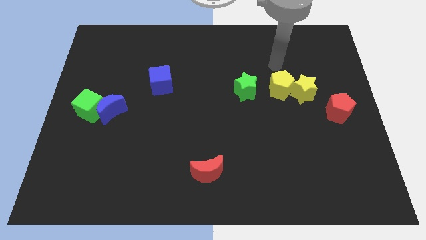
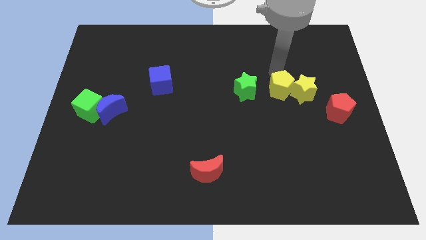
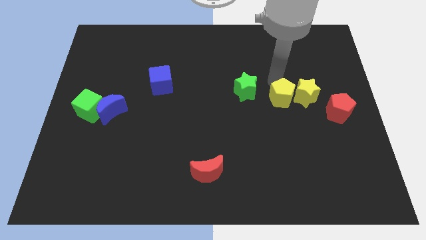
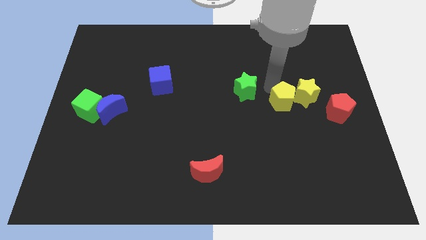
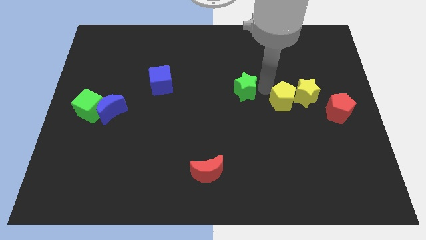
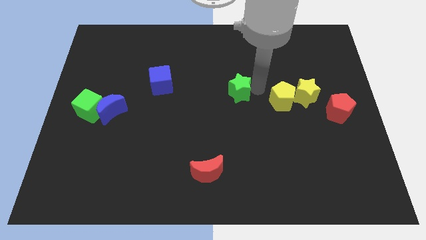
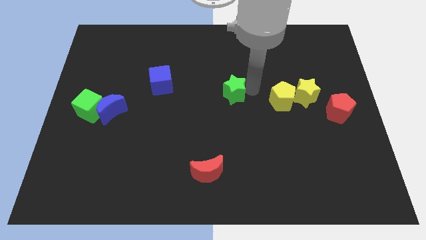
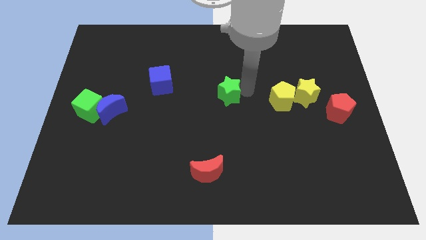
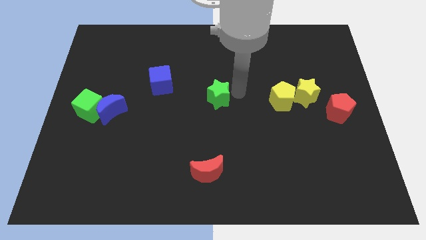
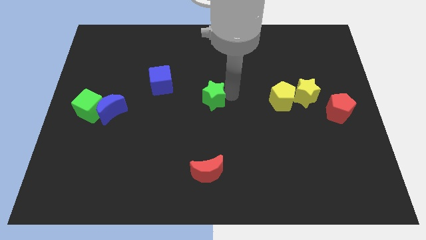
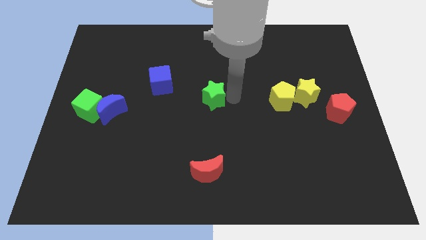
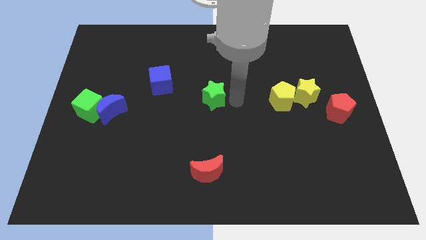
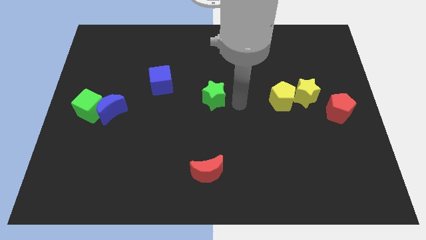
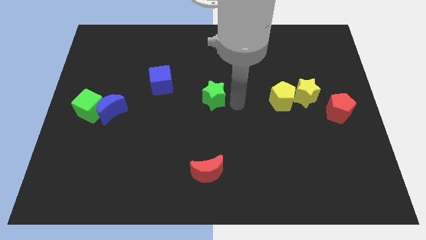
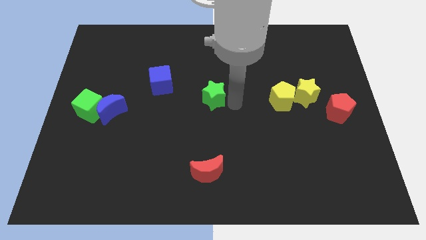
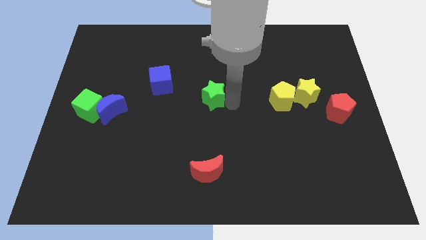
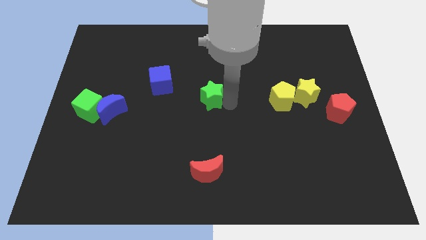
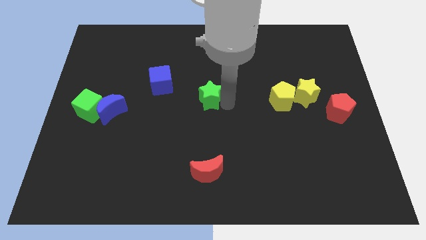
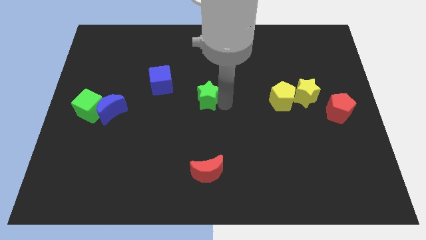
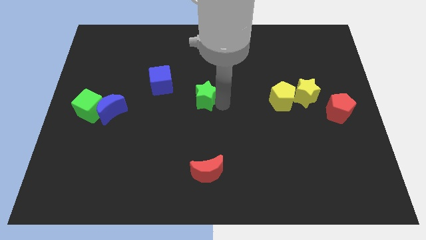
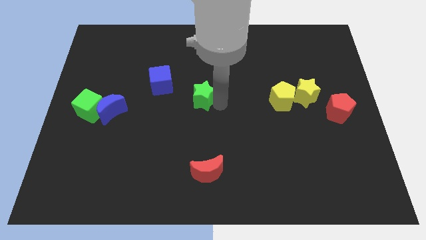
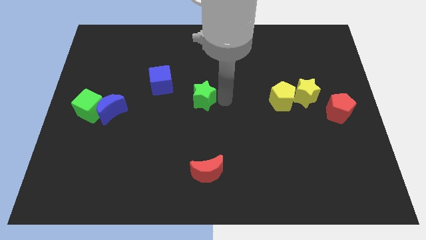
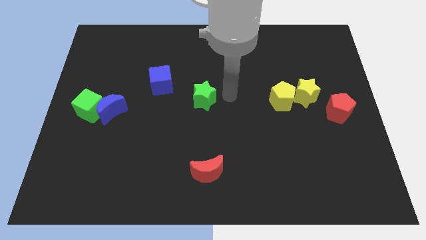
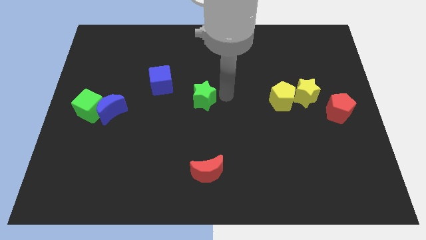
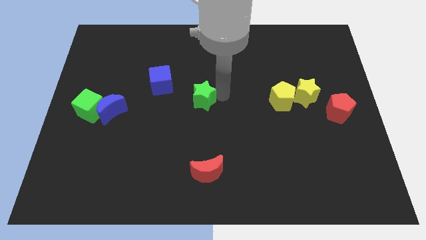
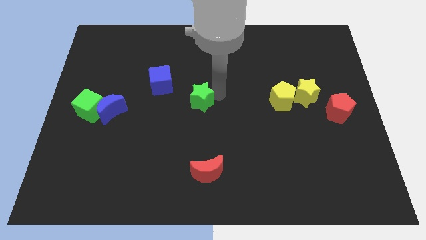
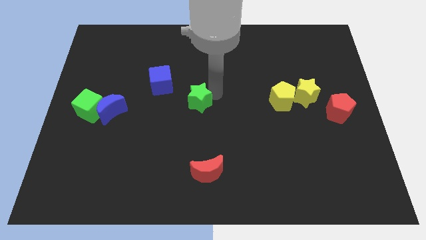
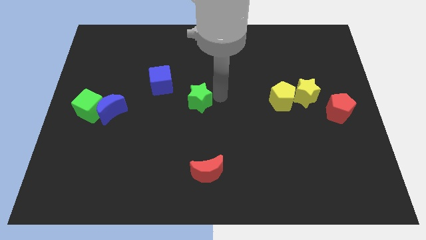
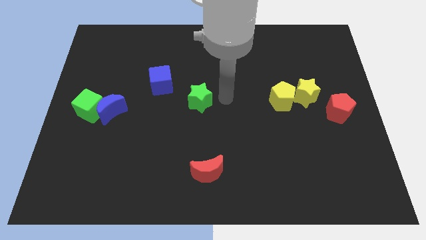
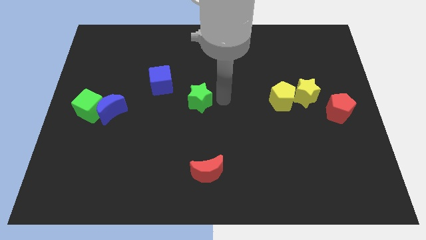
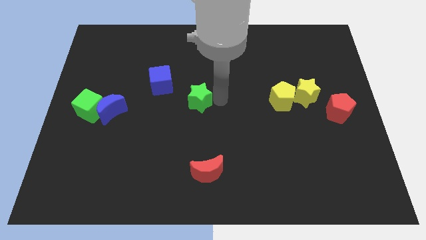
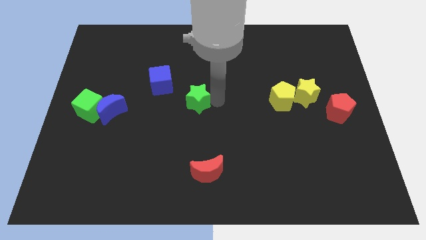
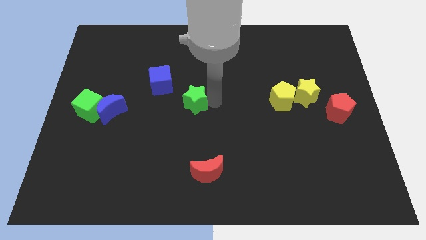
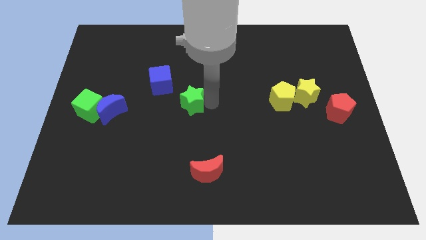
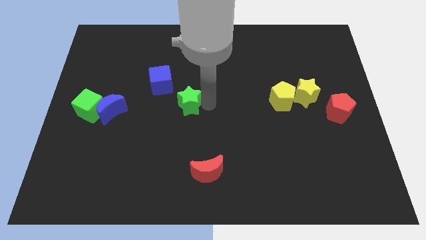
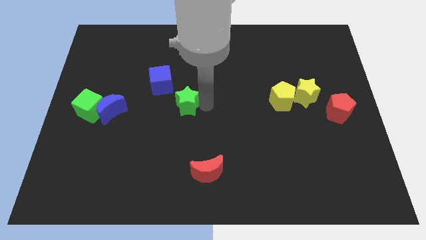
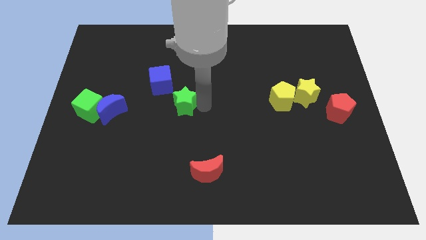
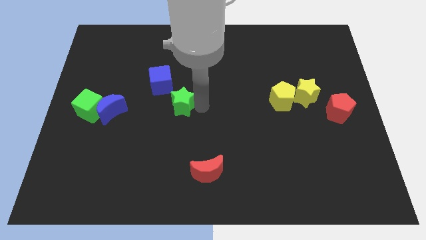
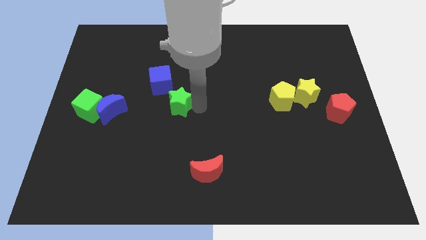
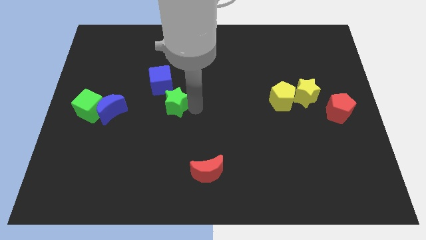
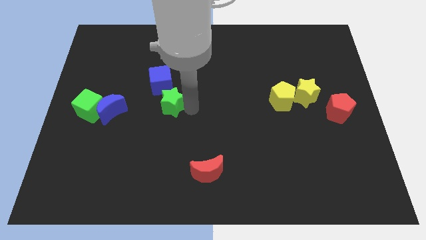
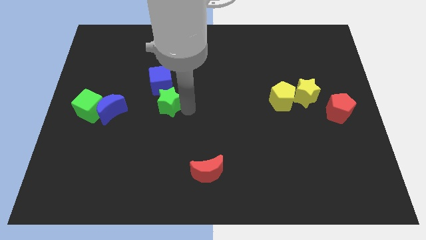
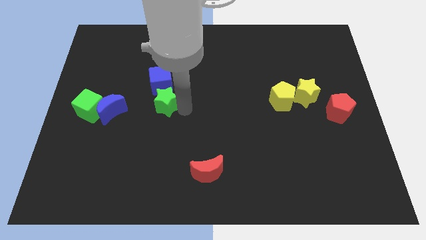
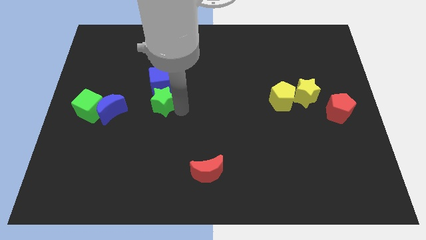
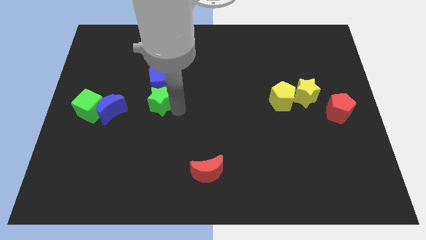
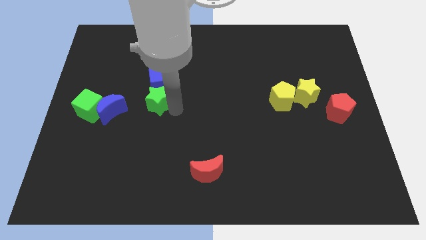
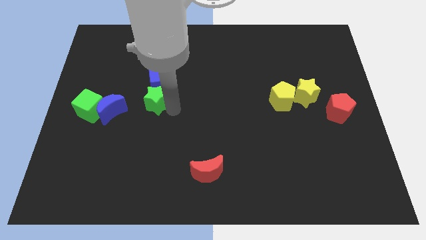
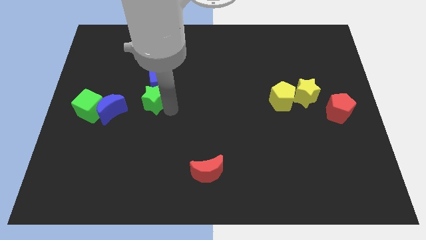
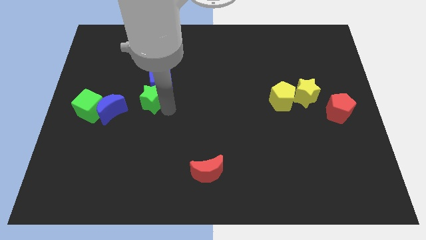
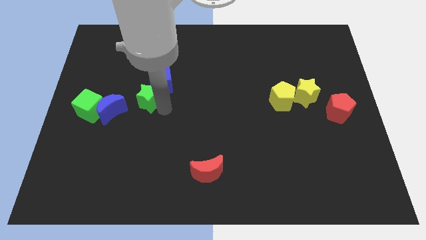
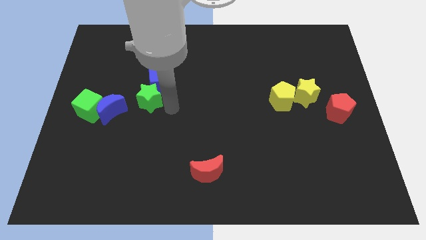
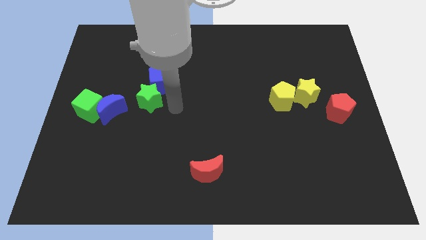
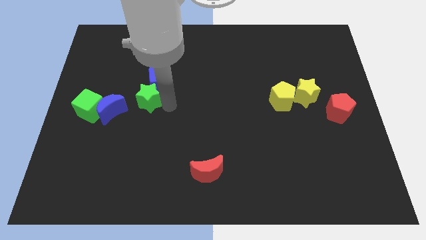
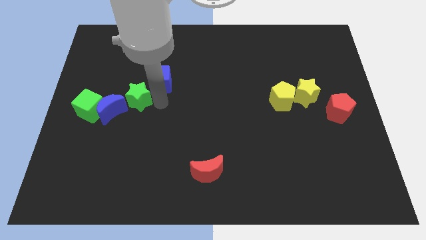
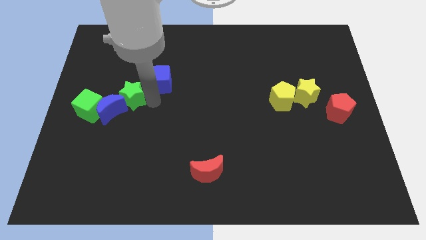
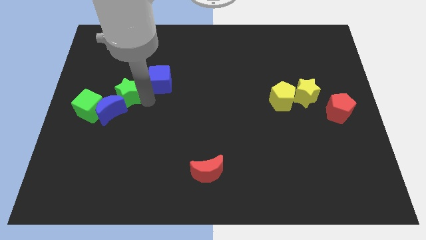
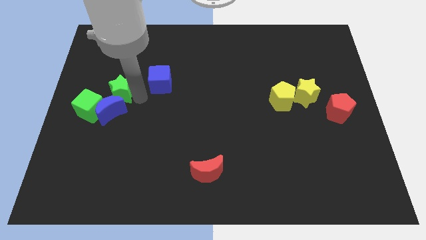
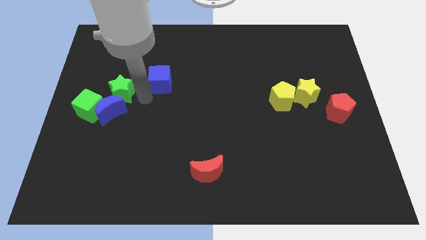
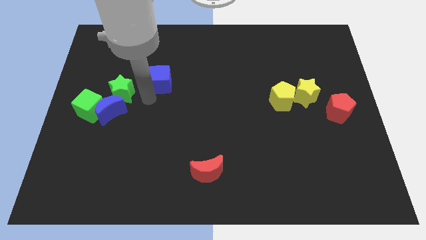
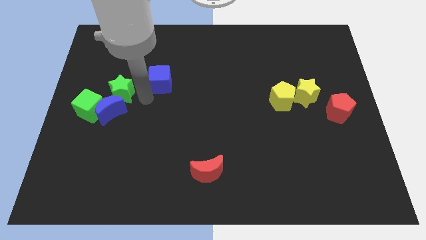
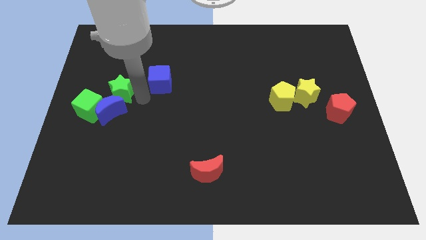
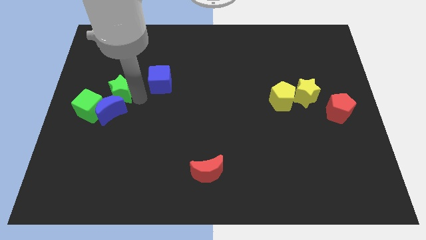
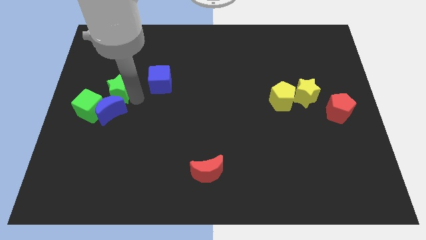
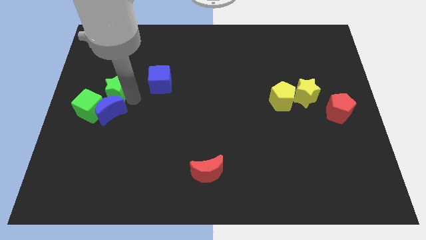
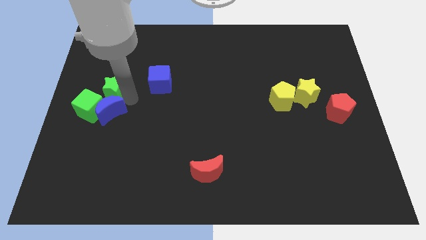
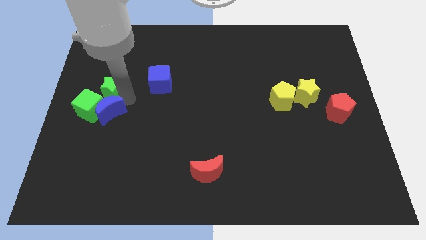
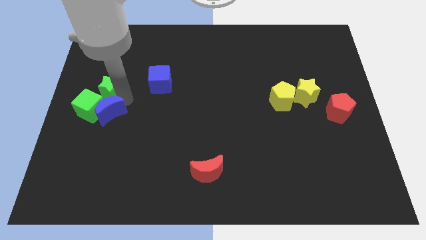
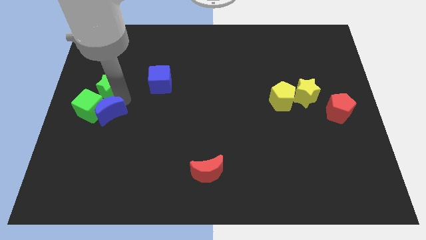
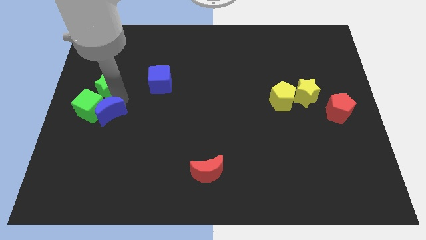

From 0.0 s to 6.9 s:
push the green star to the center left
